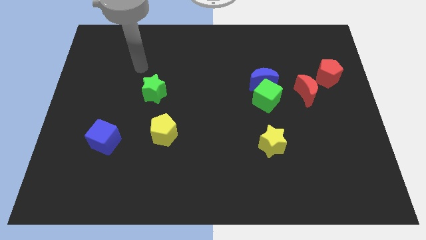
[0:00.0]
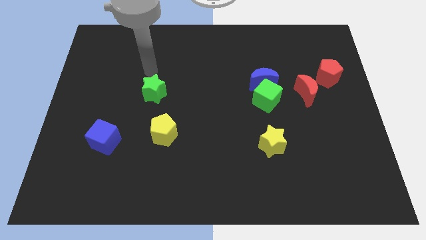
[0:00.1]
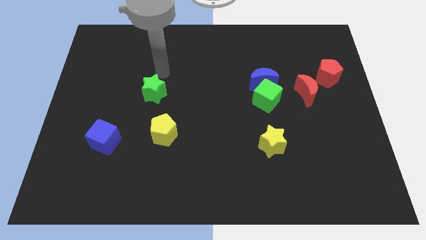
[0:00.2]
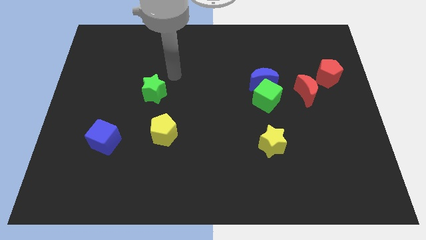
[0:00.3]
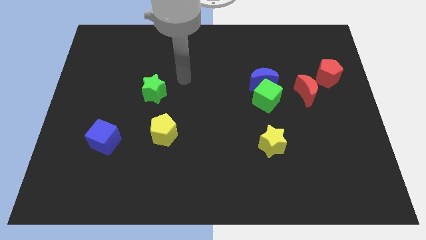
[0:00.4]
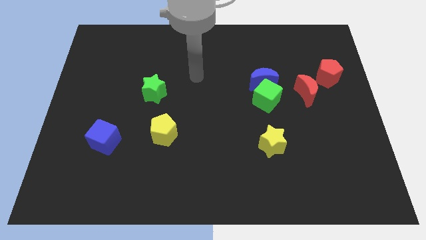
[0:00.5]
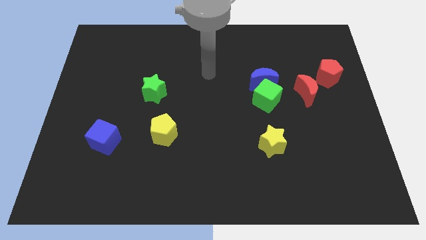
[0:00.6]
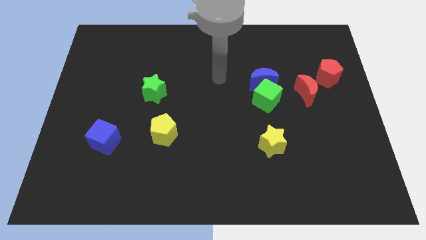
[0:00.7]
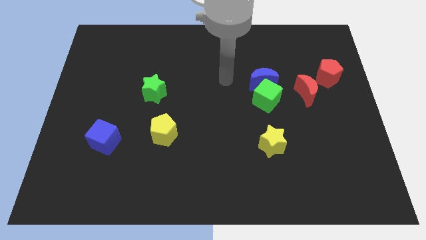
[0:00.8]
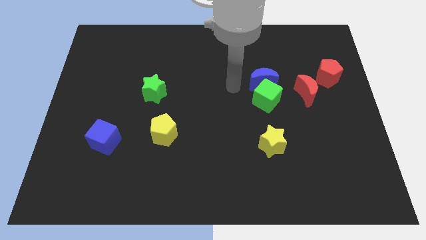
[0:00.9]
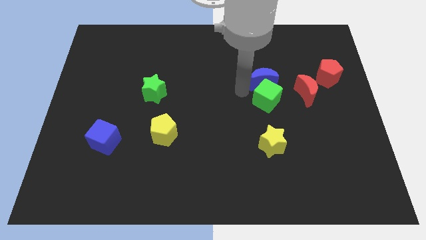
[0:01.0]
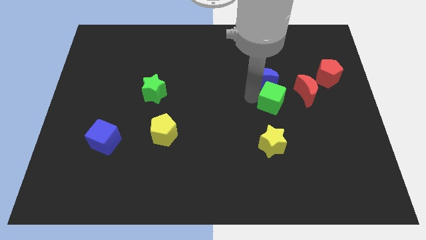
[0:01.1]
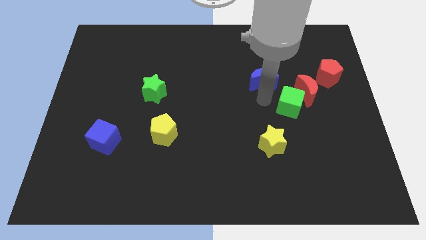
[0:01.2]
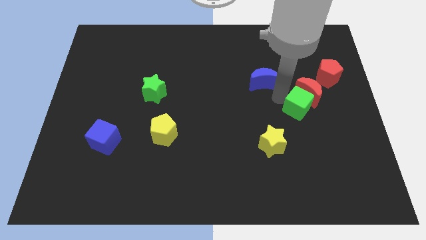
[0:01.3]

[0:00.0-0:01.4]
pull the blue moon apart from the green cube

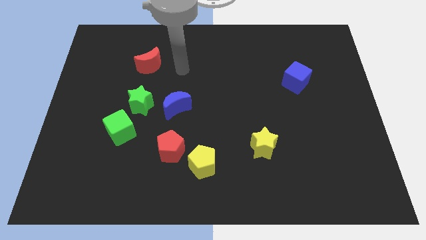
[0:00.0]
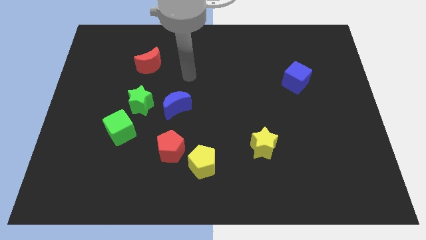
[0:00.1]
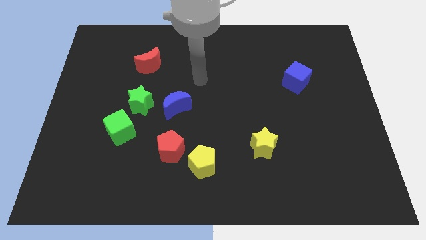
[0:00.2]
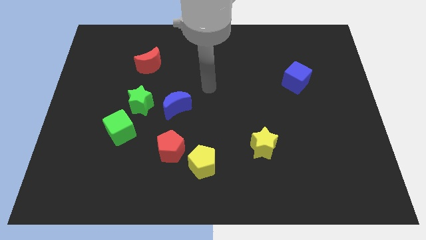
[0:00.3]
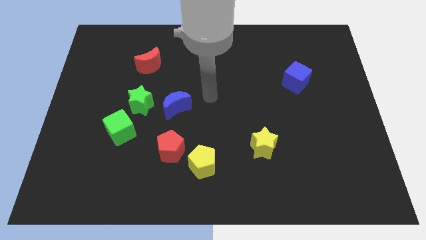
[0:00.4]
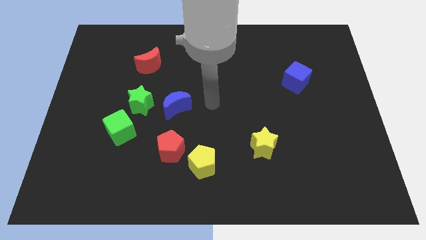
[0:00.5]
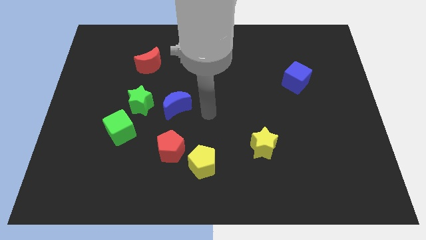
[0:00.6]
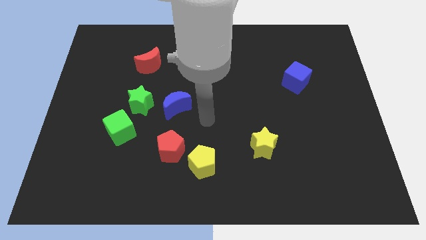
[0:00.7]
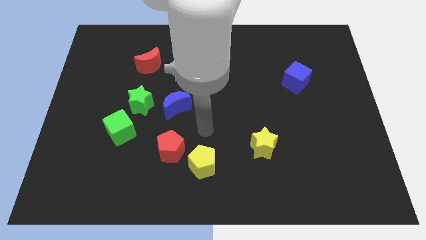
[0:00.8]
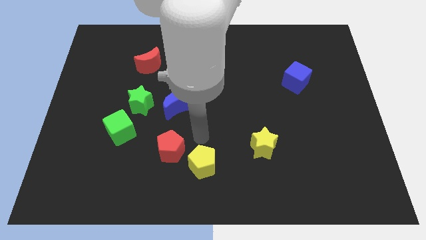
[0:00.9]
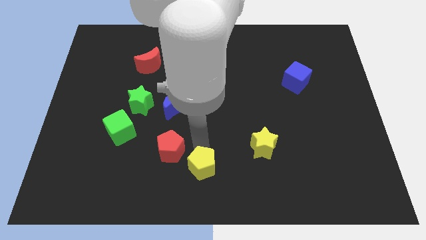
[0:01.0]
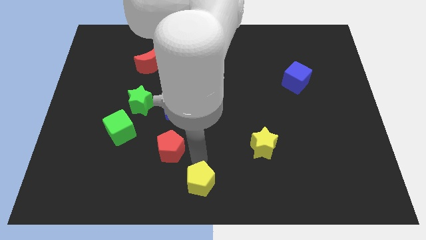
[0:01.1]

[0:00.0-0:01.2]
move the red pentagon away from the yellow pentagon

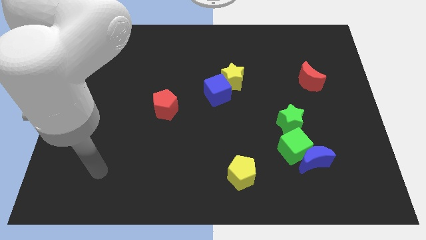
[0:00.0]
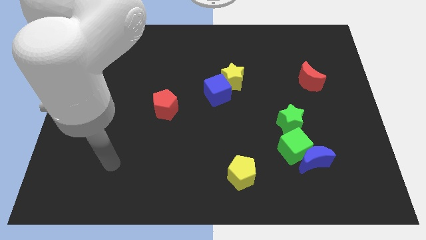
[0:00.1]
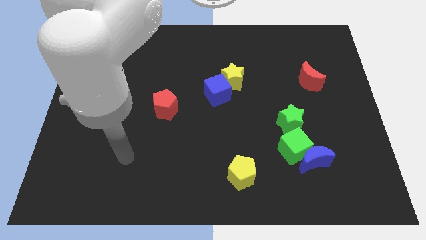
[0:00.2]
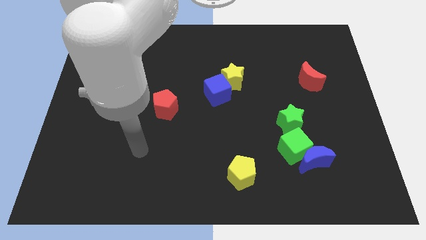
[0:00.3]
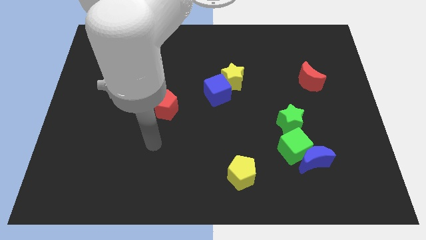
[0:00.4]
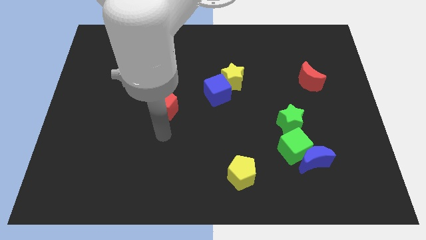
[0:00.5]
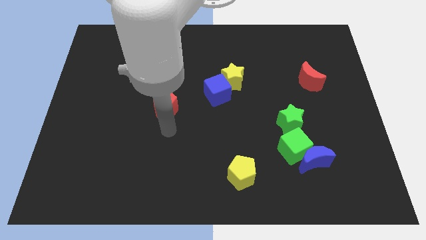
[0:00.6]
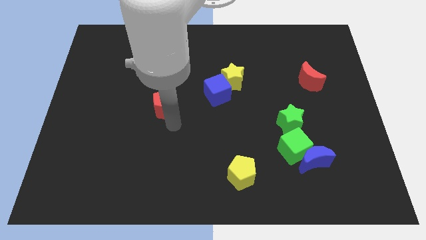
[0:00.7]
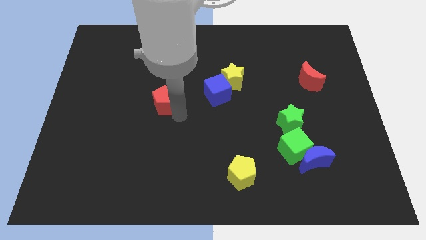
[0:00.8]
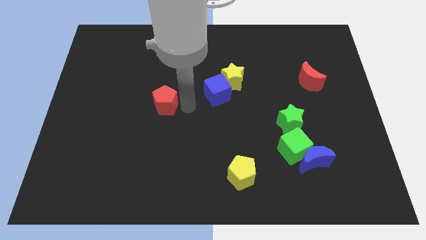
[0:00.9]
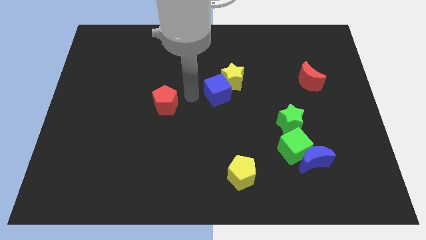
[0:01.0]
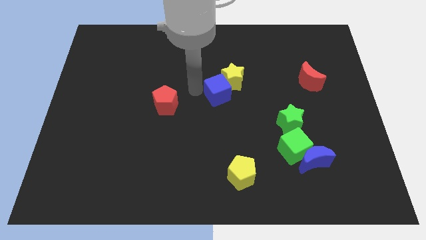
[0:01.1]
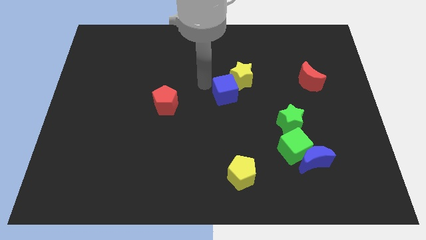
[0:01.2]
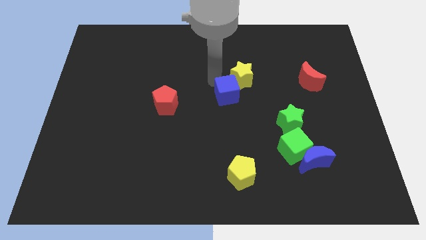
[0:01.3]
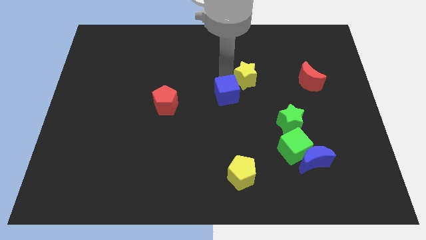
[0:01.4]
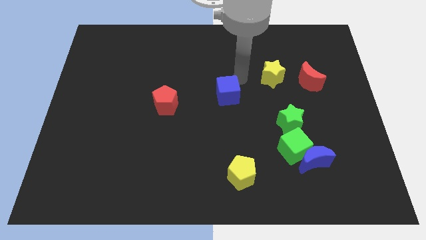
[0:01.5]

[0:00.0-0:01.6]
separate the blue cube from the yellow star

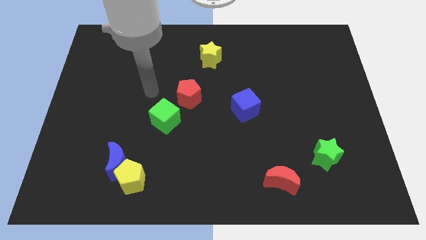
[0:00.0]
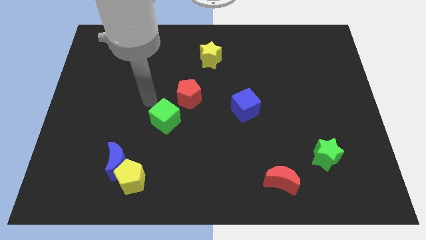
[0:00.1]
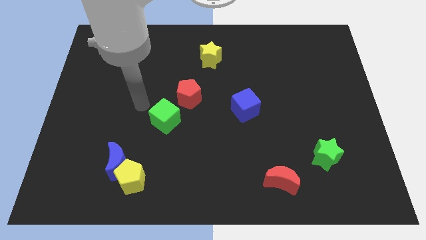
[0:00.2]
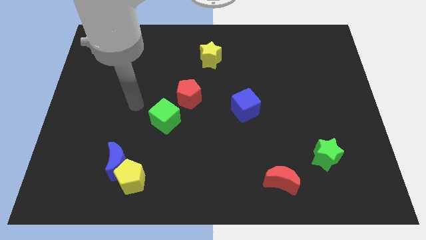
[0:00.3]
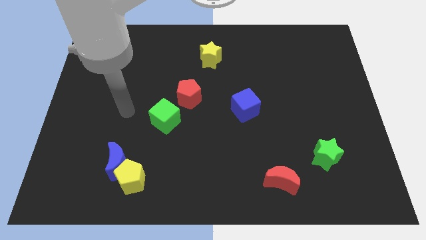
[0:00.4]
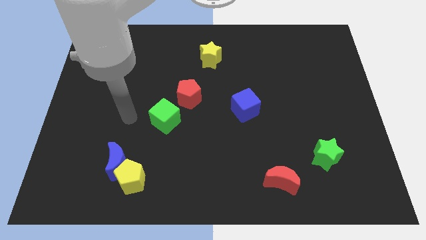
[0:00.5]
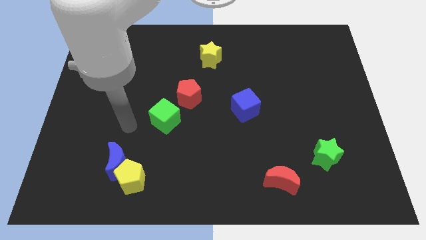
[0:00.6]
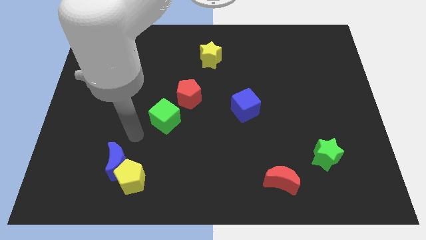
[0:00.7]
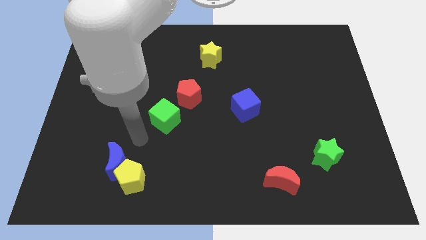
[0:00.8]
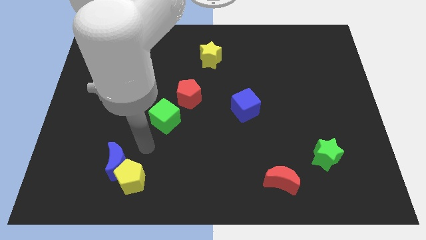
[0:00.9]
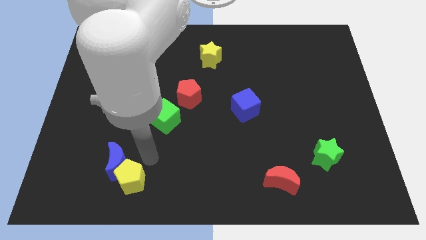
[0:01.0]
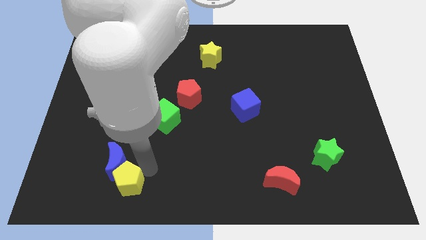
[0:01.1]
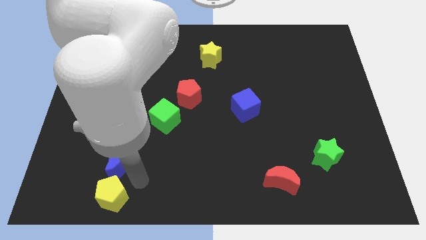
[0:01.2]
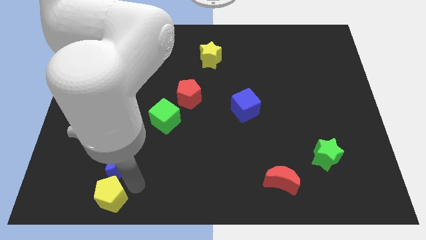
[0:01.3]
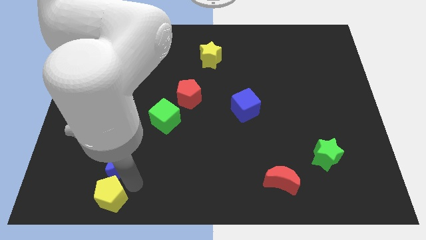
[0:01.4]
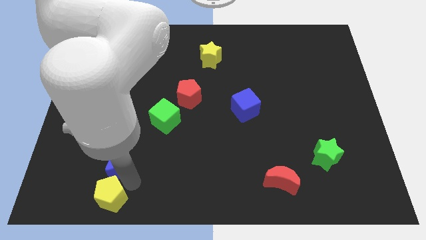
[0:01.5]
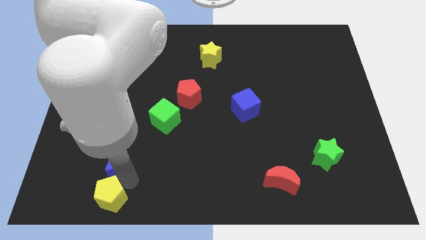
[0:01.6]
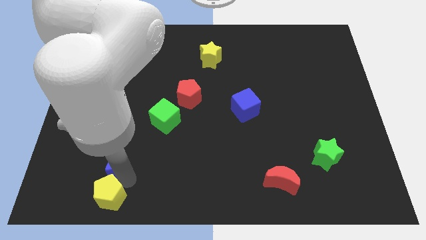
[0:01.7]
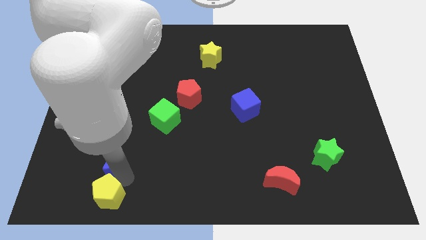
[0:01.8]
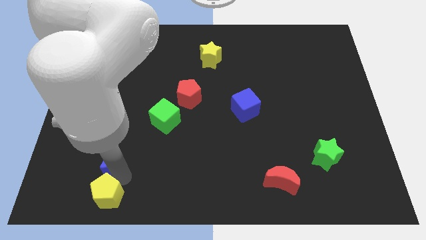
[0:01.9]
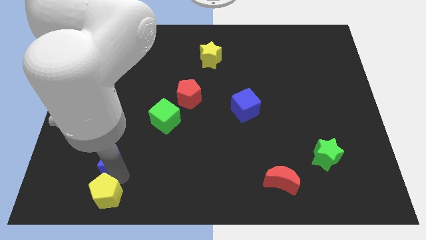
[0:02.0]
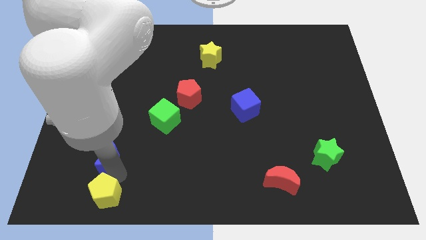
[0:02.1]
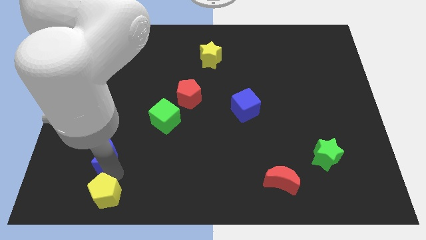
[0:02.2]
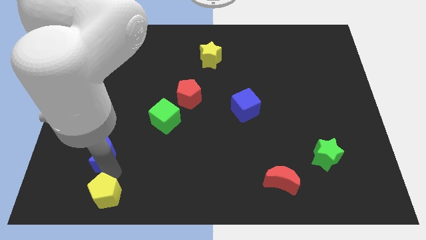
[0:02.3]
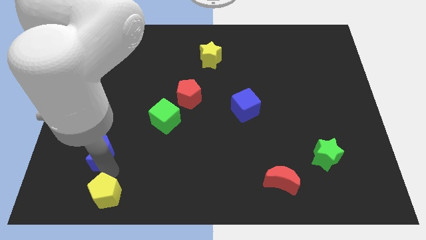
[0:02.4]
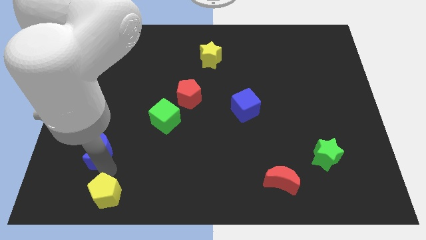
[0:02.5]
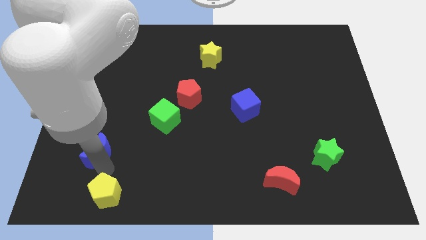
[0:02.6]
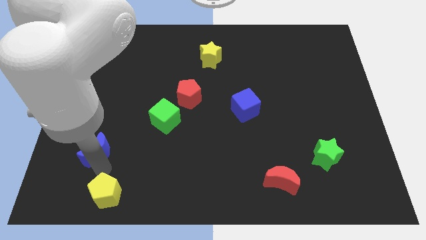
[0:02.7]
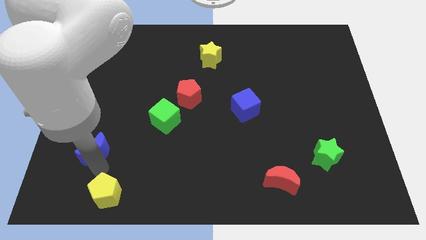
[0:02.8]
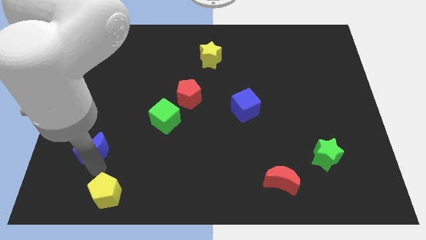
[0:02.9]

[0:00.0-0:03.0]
move the blue moon away from the yellow pentagon

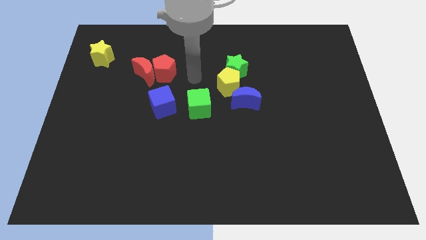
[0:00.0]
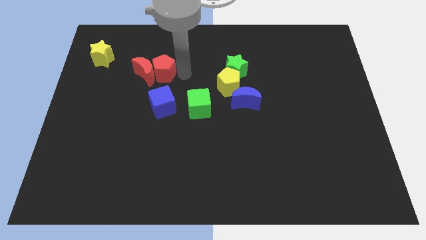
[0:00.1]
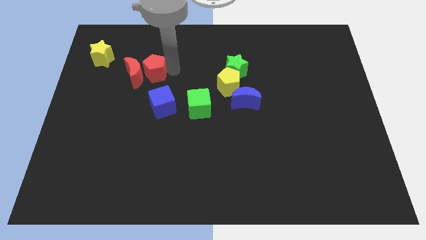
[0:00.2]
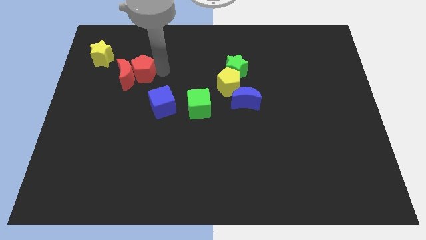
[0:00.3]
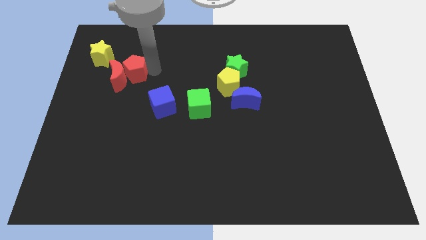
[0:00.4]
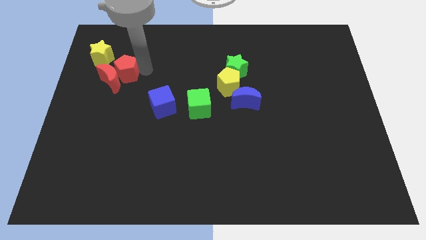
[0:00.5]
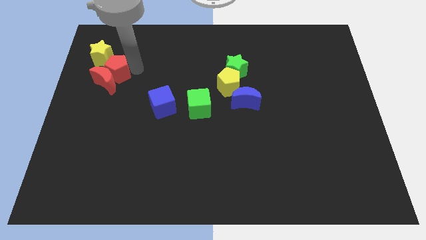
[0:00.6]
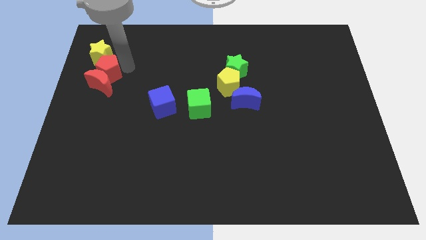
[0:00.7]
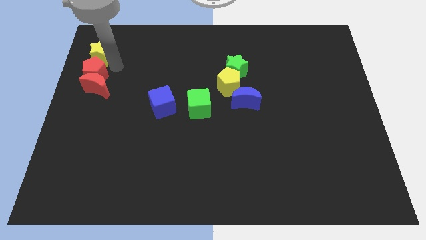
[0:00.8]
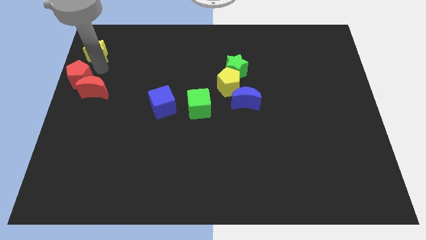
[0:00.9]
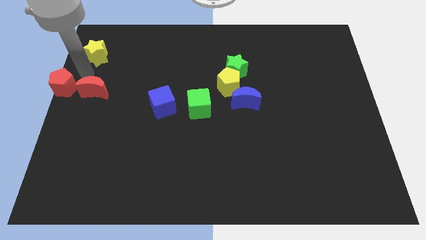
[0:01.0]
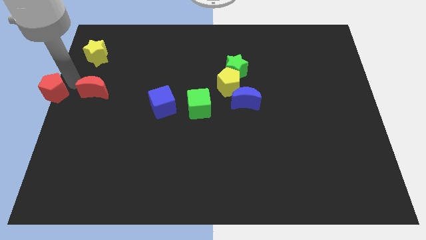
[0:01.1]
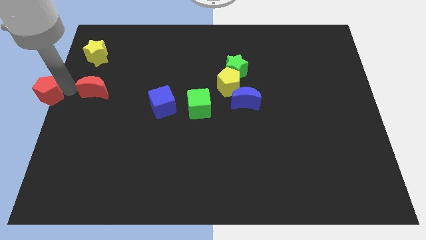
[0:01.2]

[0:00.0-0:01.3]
separate the red moon from the red pentagon

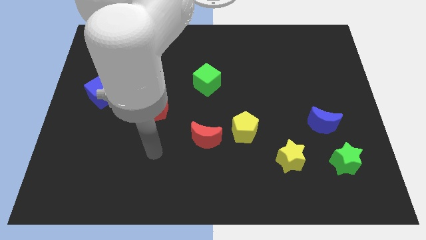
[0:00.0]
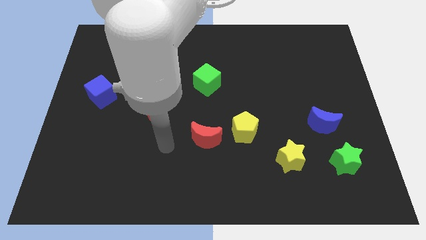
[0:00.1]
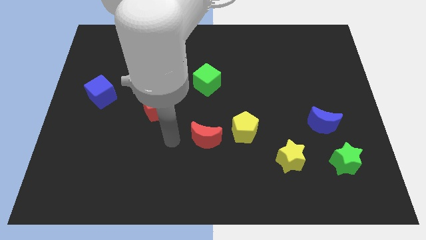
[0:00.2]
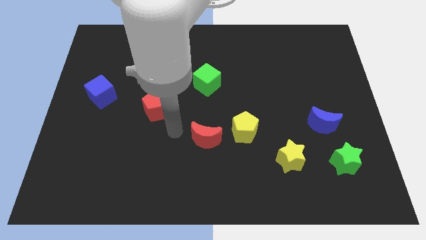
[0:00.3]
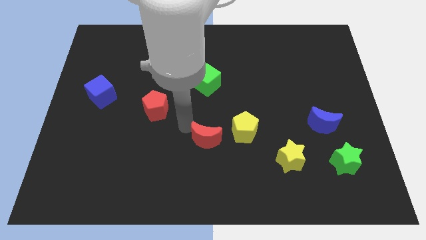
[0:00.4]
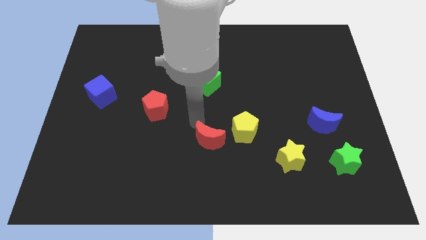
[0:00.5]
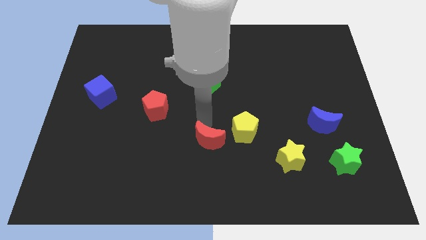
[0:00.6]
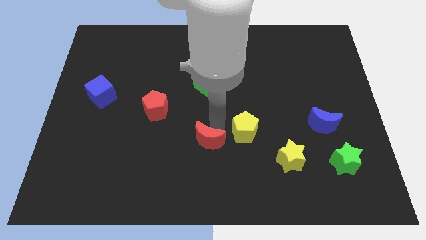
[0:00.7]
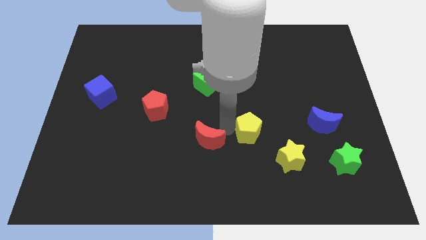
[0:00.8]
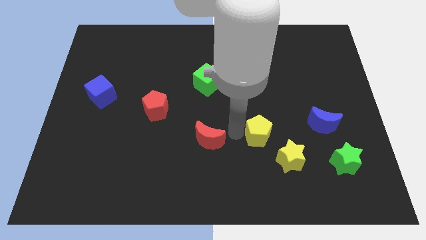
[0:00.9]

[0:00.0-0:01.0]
pull the red moon apart from the yellow pentagon
